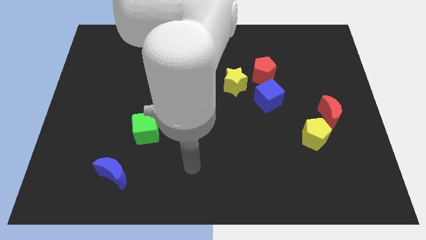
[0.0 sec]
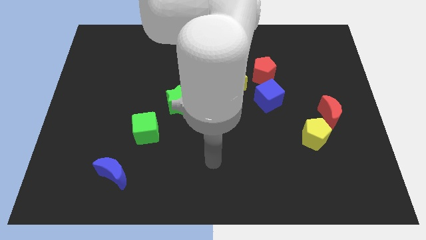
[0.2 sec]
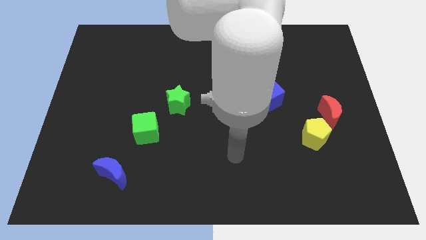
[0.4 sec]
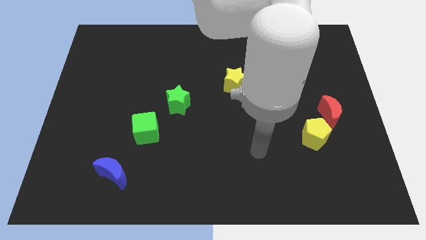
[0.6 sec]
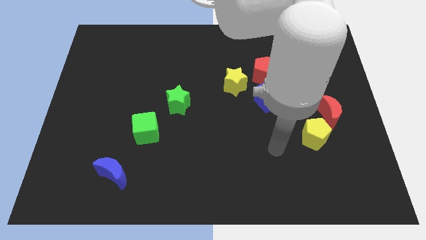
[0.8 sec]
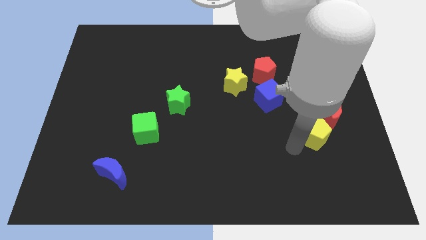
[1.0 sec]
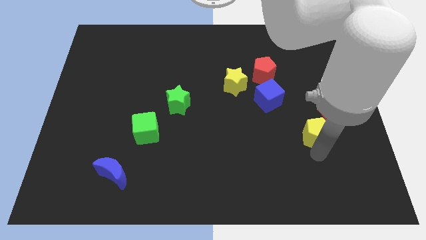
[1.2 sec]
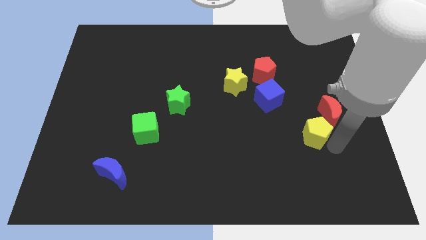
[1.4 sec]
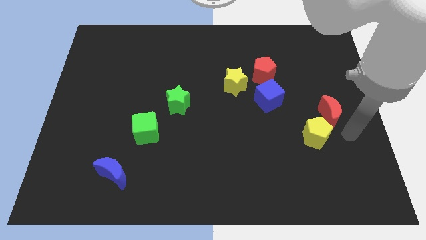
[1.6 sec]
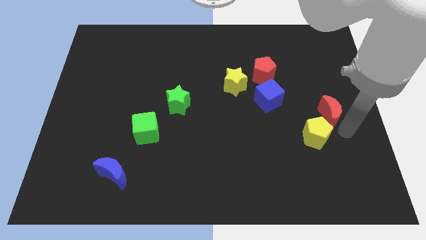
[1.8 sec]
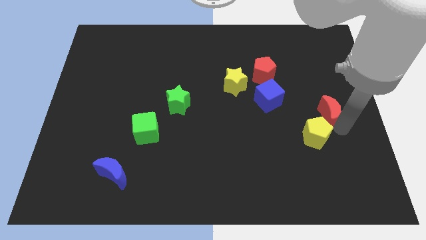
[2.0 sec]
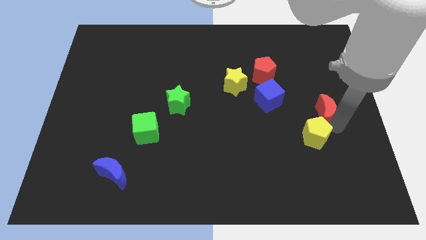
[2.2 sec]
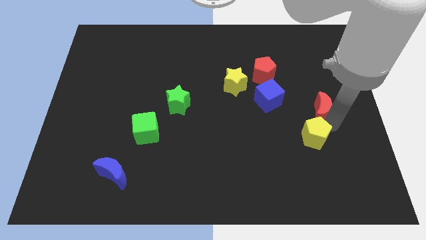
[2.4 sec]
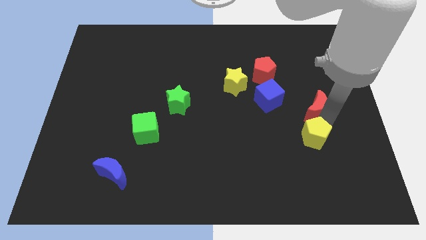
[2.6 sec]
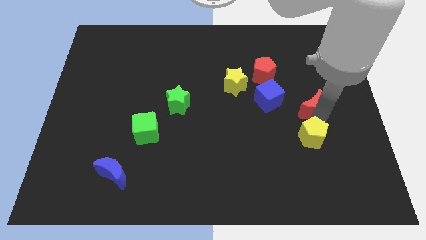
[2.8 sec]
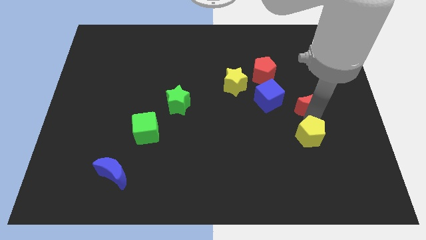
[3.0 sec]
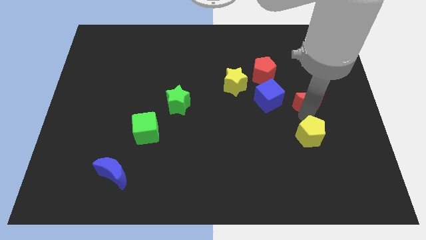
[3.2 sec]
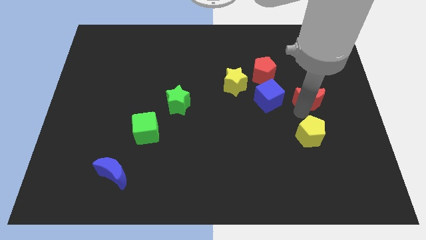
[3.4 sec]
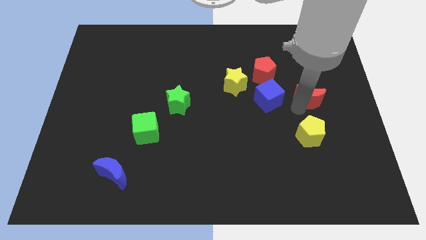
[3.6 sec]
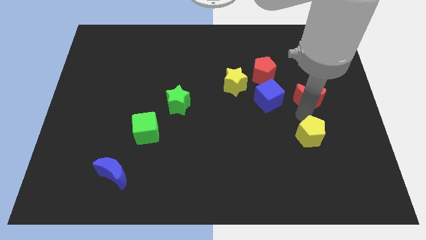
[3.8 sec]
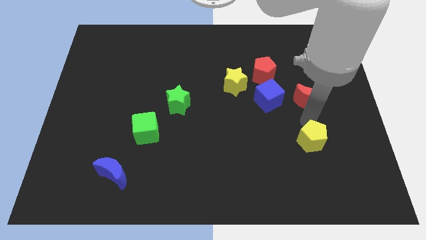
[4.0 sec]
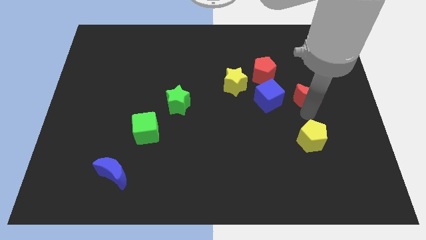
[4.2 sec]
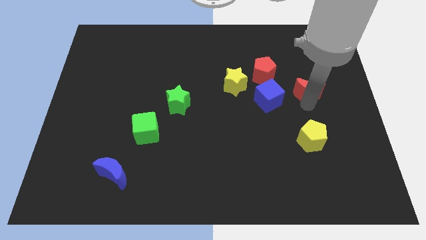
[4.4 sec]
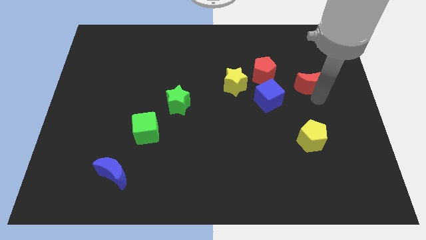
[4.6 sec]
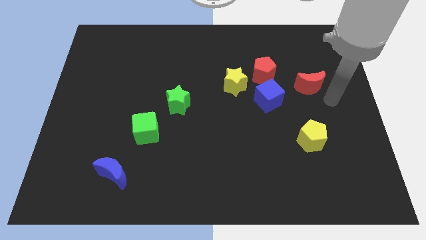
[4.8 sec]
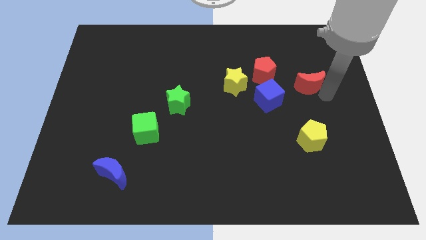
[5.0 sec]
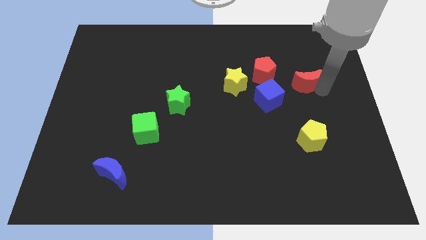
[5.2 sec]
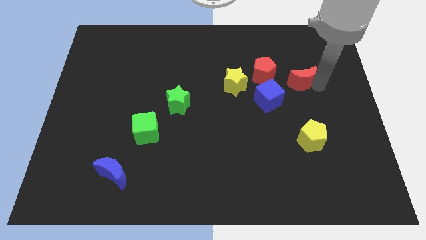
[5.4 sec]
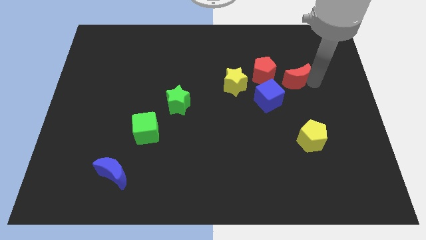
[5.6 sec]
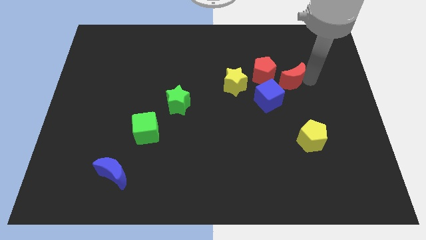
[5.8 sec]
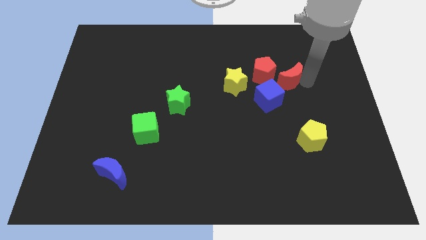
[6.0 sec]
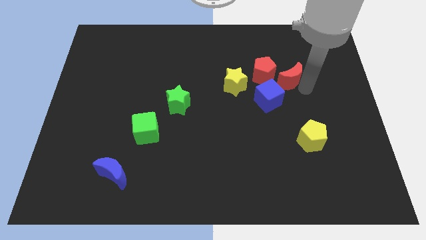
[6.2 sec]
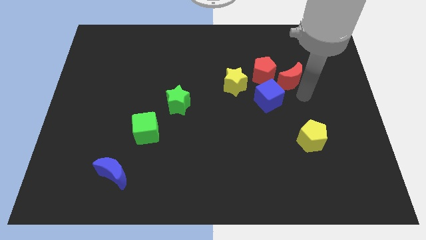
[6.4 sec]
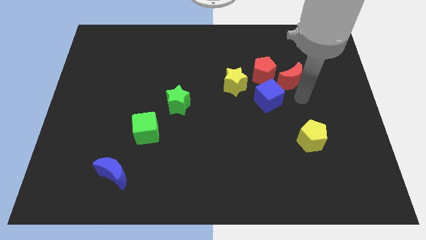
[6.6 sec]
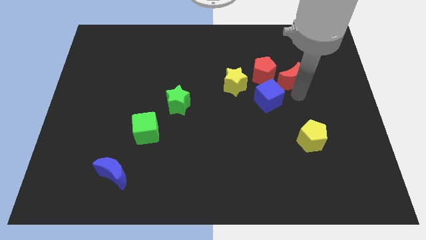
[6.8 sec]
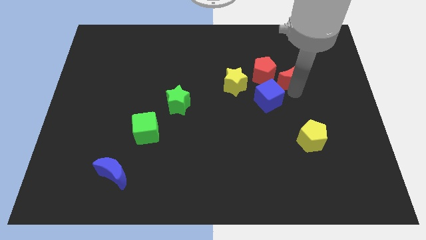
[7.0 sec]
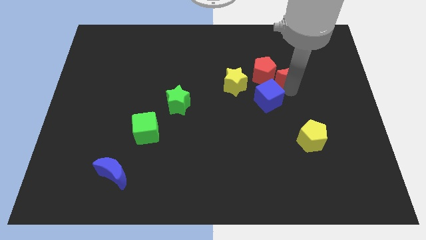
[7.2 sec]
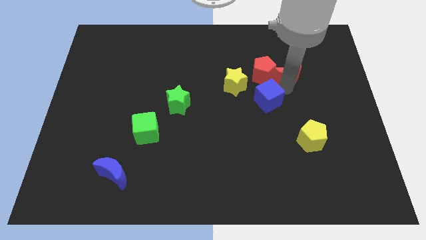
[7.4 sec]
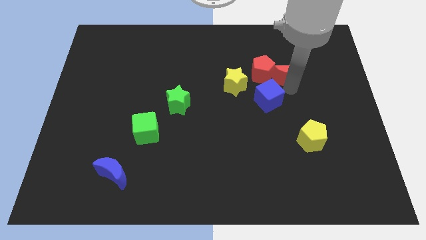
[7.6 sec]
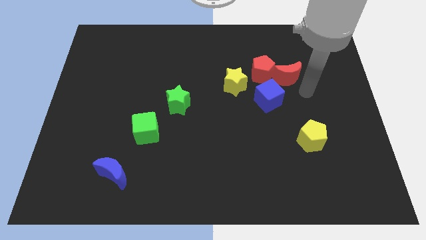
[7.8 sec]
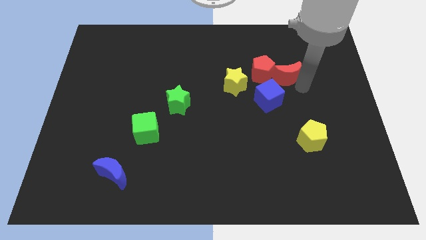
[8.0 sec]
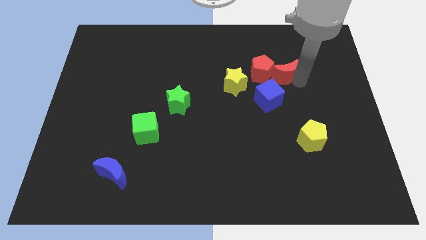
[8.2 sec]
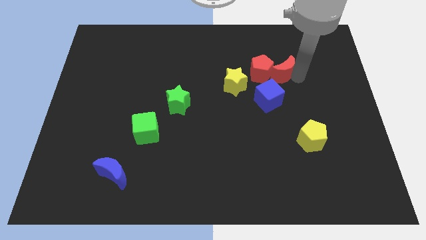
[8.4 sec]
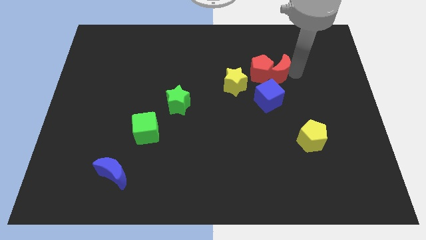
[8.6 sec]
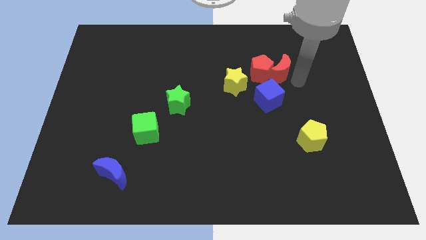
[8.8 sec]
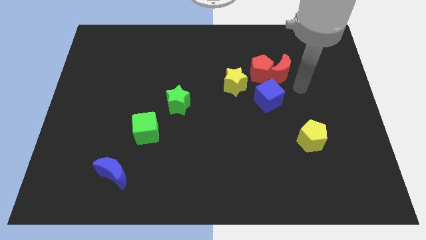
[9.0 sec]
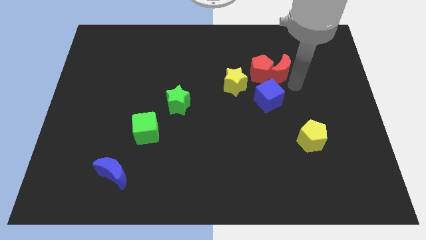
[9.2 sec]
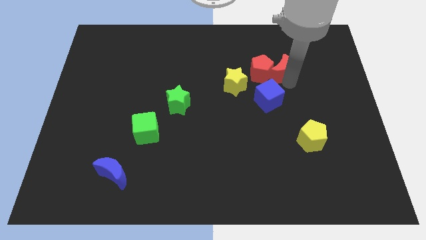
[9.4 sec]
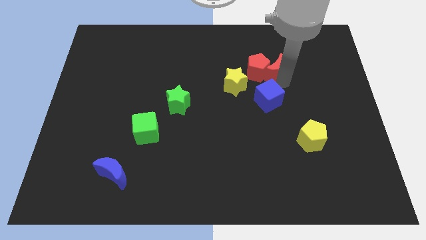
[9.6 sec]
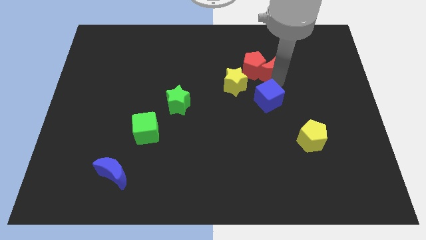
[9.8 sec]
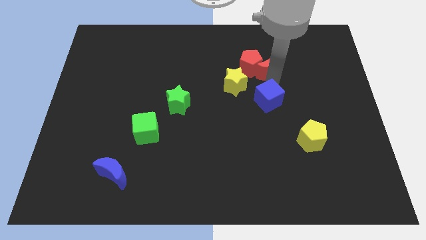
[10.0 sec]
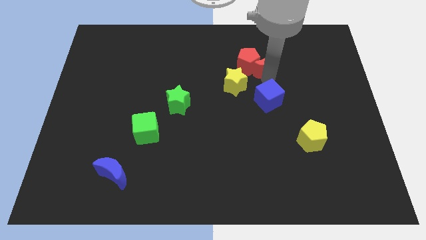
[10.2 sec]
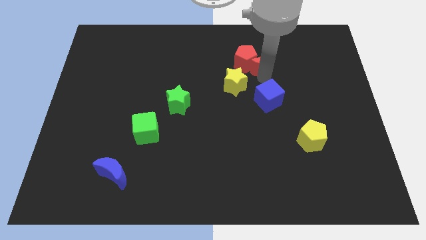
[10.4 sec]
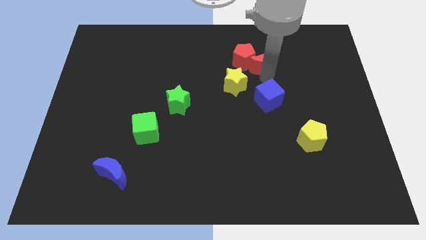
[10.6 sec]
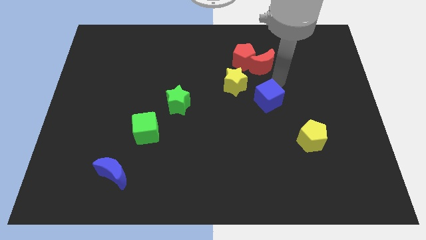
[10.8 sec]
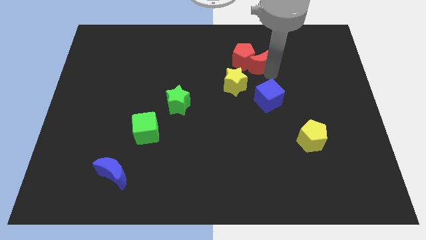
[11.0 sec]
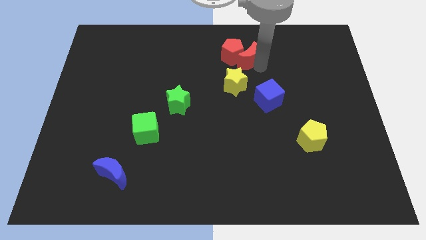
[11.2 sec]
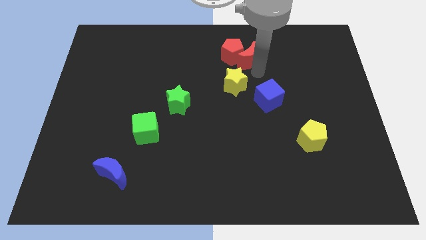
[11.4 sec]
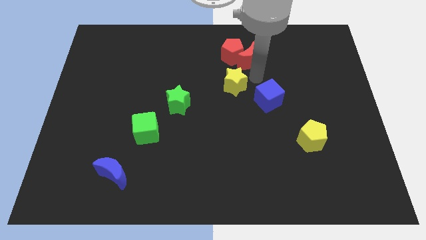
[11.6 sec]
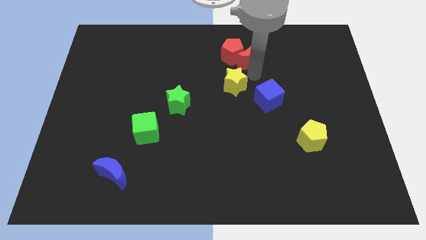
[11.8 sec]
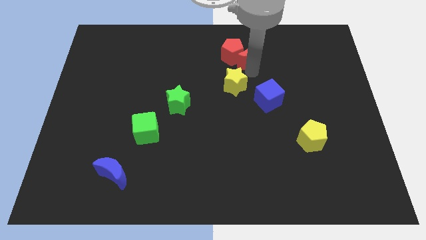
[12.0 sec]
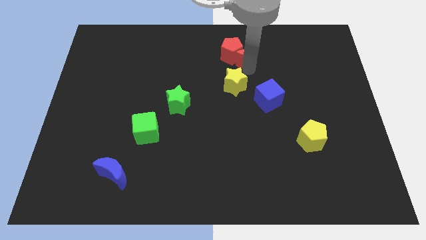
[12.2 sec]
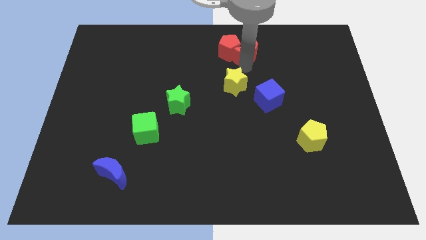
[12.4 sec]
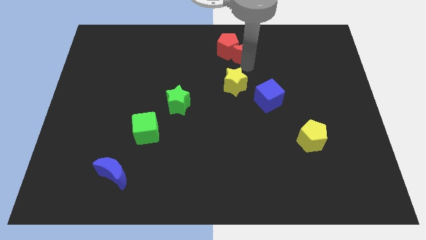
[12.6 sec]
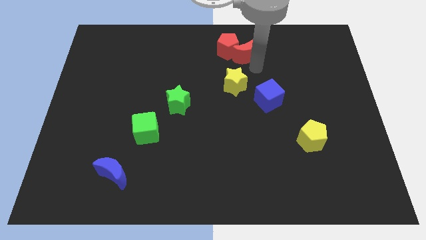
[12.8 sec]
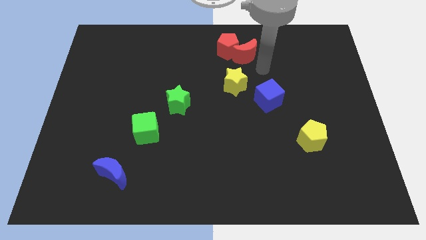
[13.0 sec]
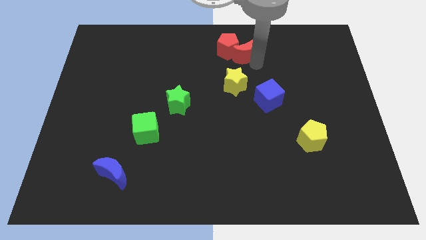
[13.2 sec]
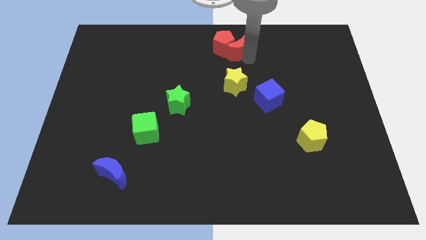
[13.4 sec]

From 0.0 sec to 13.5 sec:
push the red moon to the top
